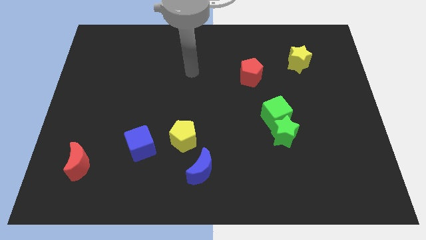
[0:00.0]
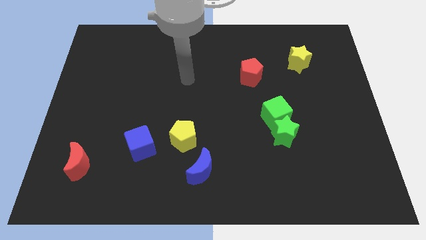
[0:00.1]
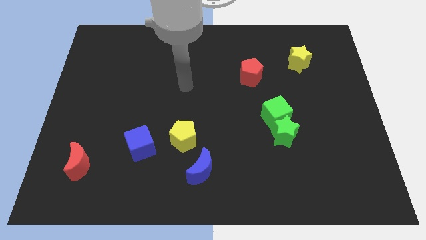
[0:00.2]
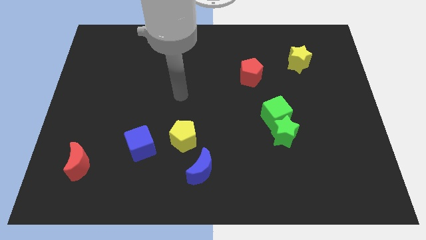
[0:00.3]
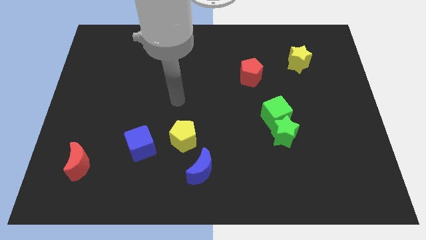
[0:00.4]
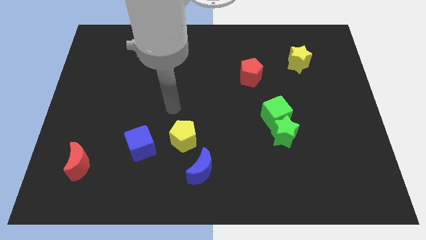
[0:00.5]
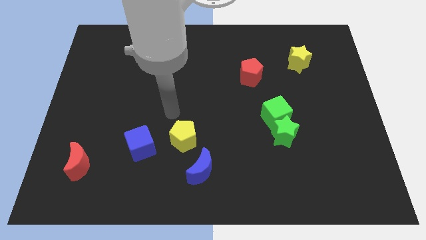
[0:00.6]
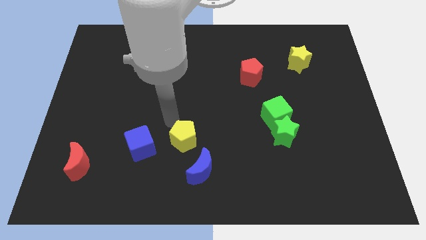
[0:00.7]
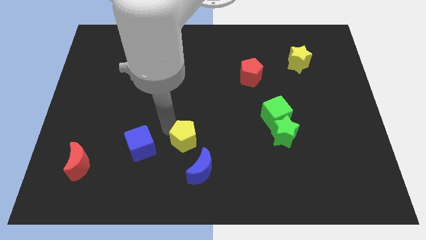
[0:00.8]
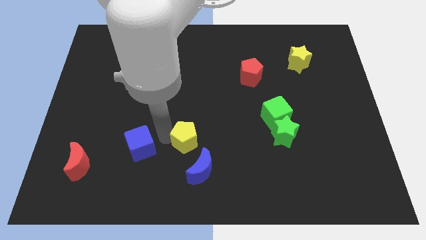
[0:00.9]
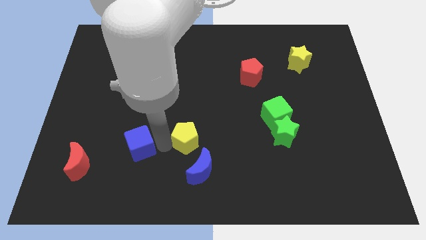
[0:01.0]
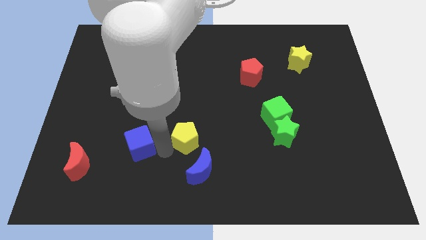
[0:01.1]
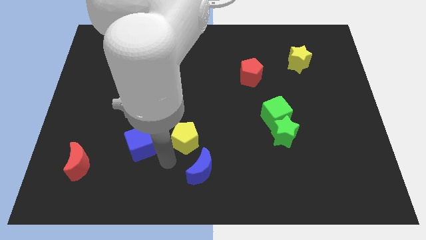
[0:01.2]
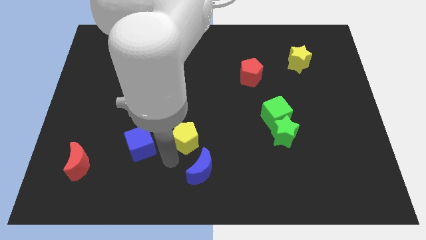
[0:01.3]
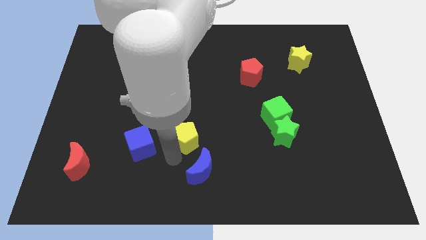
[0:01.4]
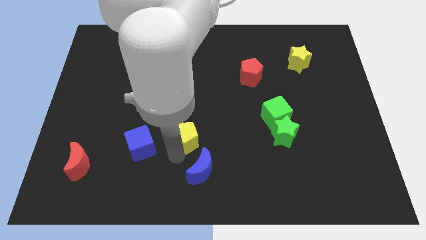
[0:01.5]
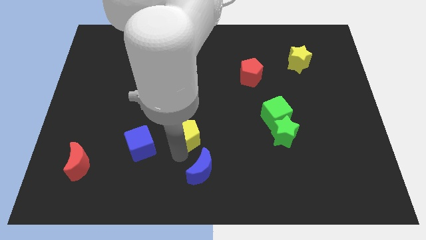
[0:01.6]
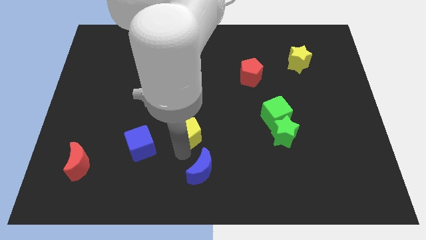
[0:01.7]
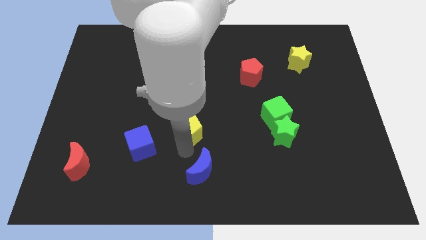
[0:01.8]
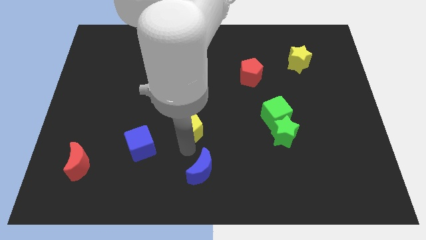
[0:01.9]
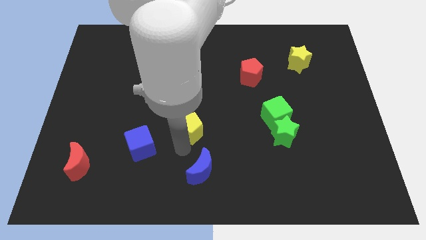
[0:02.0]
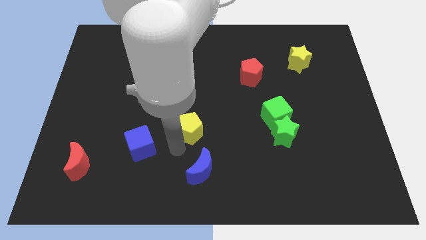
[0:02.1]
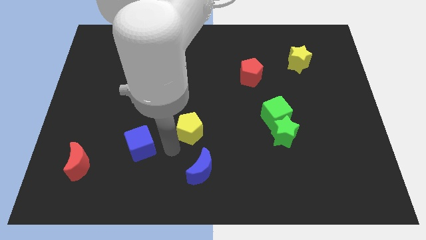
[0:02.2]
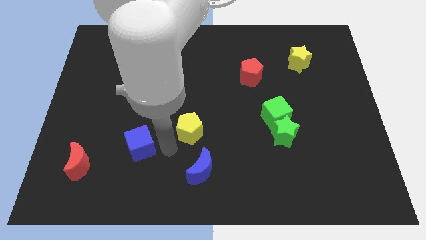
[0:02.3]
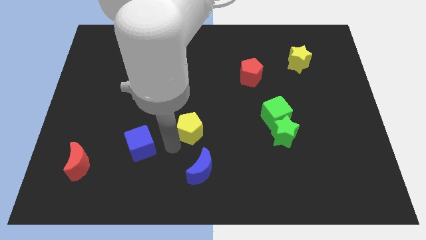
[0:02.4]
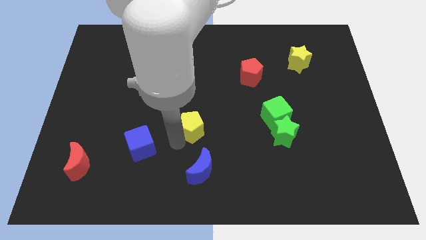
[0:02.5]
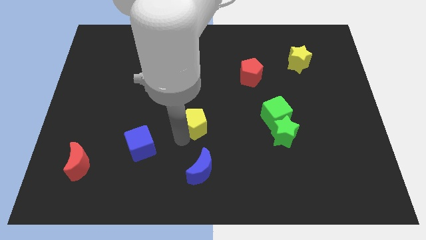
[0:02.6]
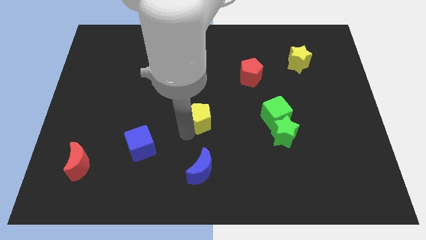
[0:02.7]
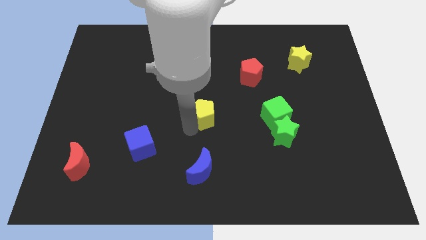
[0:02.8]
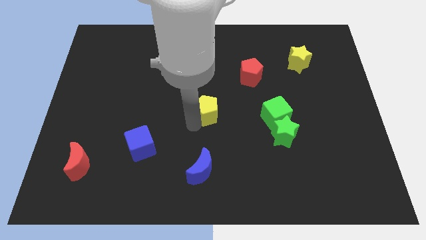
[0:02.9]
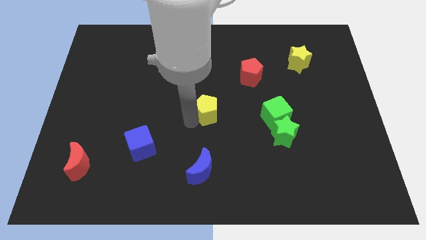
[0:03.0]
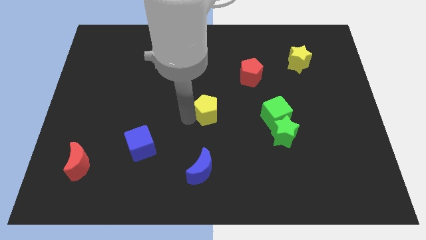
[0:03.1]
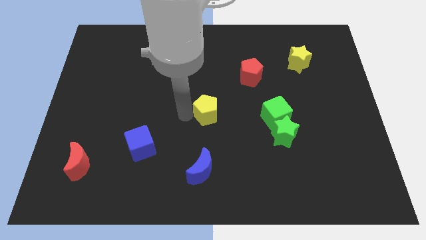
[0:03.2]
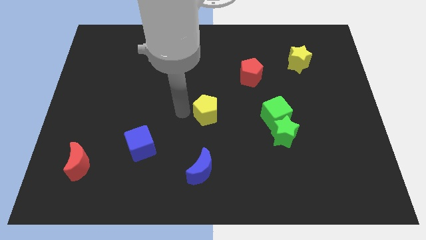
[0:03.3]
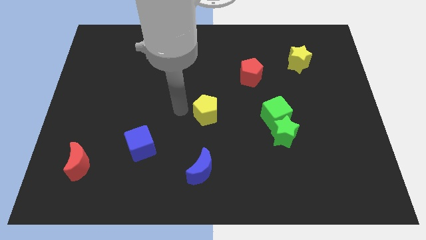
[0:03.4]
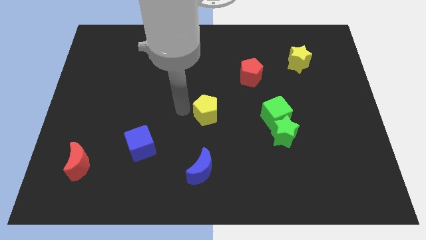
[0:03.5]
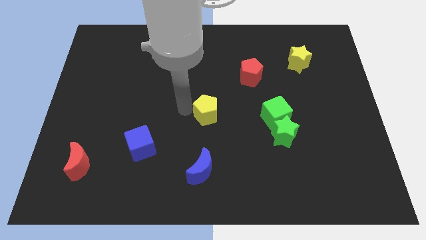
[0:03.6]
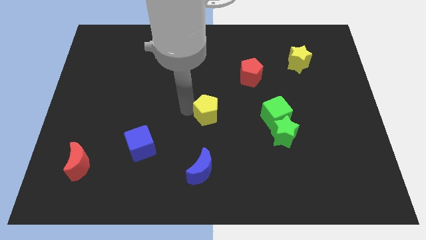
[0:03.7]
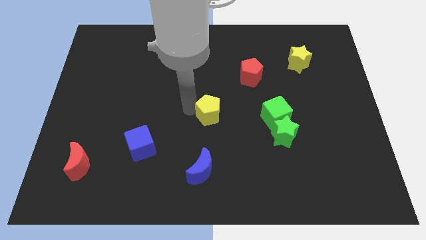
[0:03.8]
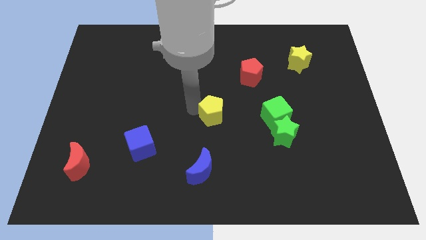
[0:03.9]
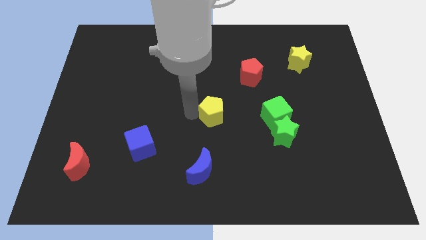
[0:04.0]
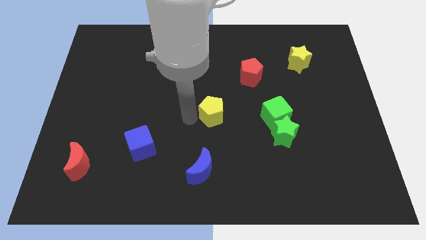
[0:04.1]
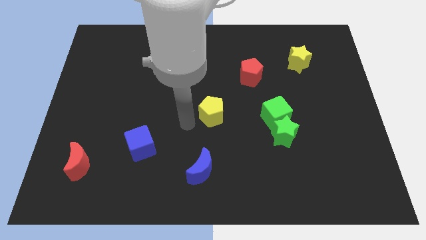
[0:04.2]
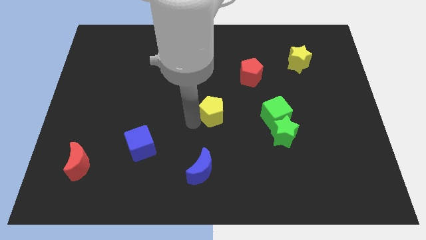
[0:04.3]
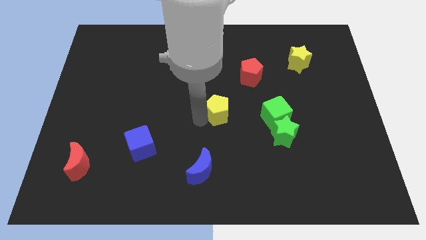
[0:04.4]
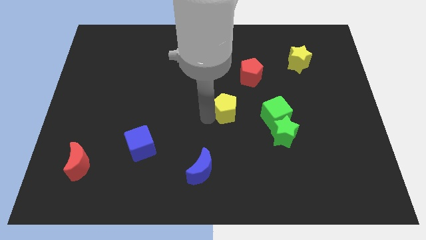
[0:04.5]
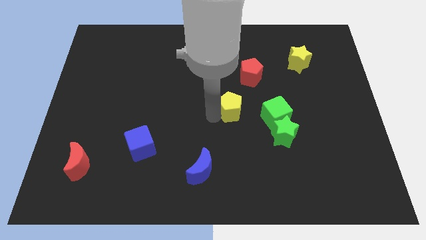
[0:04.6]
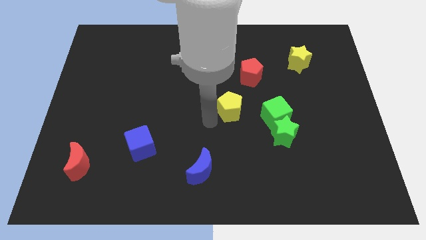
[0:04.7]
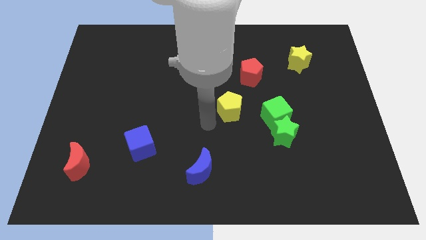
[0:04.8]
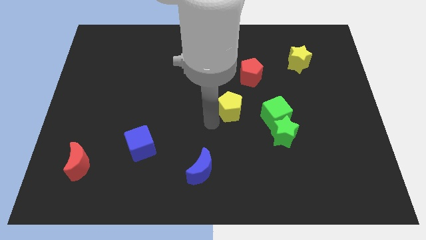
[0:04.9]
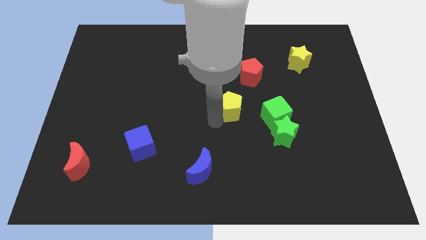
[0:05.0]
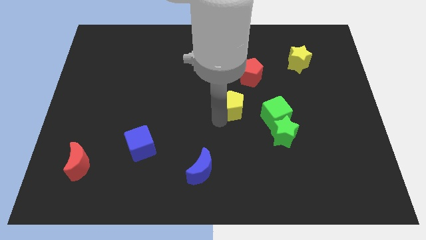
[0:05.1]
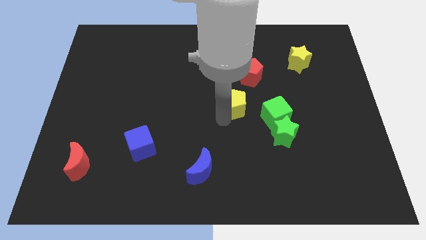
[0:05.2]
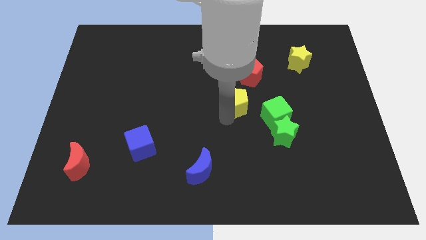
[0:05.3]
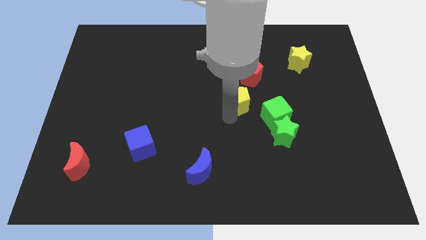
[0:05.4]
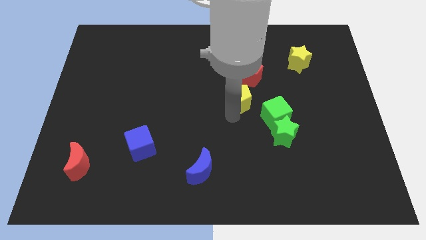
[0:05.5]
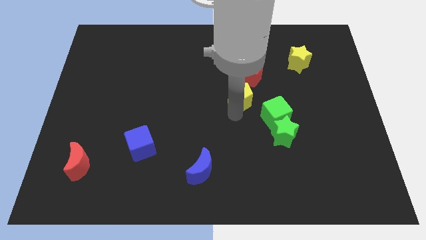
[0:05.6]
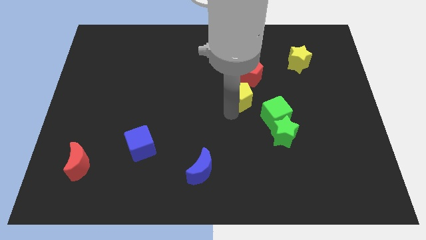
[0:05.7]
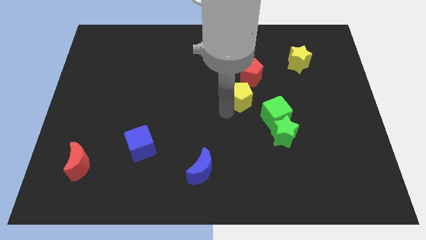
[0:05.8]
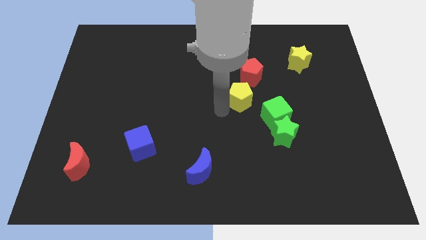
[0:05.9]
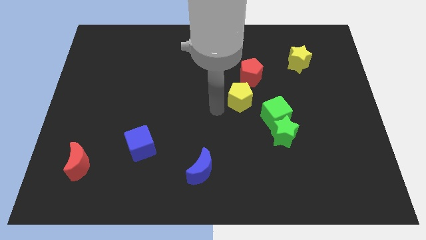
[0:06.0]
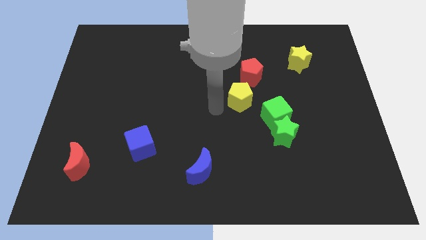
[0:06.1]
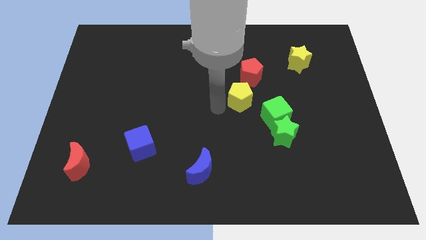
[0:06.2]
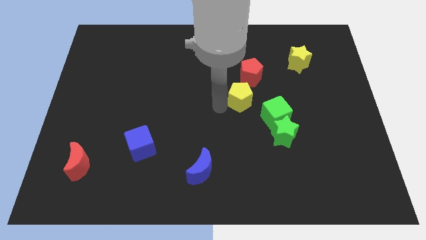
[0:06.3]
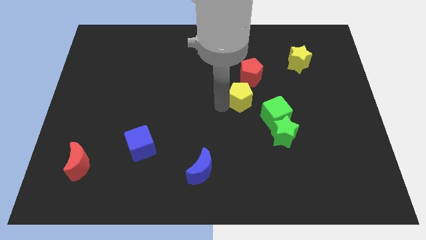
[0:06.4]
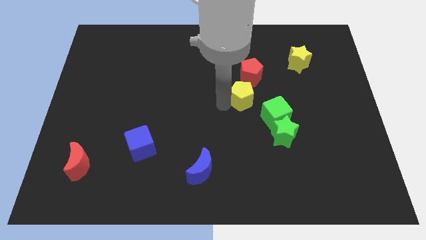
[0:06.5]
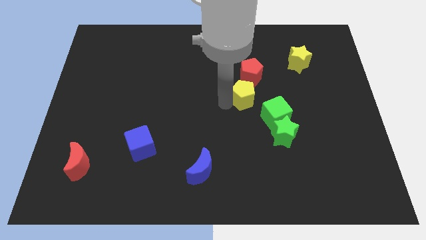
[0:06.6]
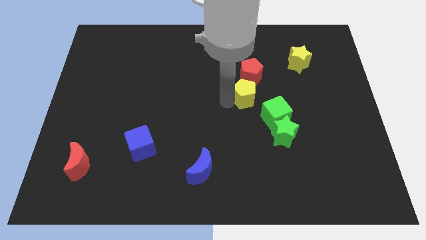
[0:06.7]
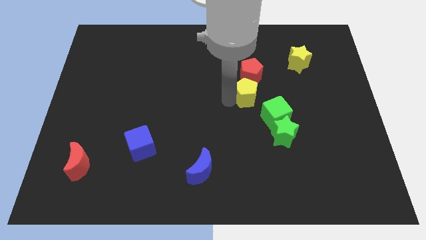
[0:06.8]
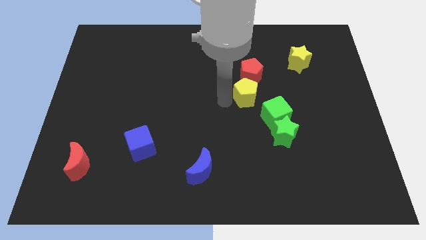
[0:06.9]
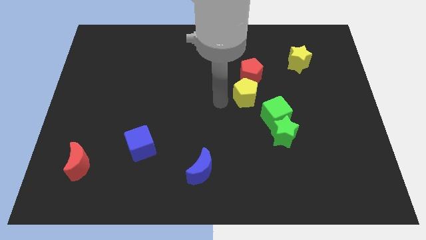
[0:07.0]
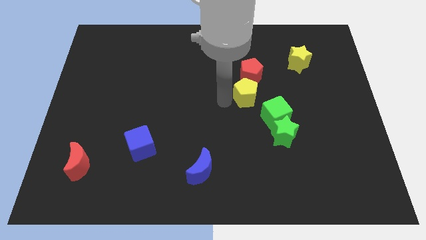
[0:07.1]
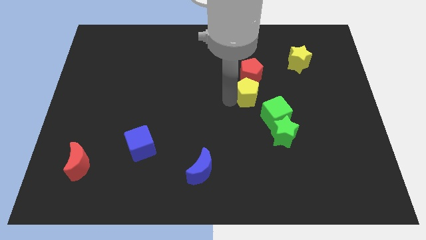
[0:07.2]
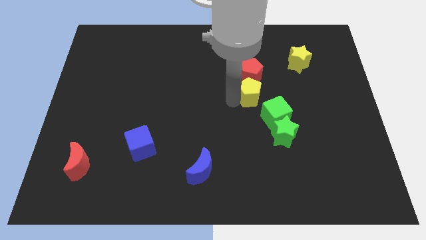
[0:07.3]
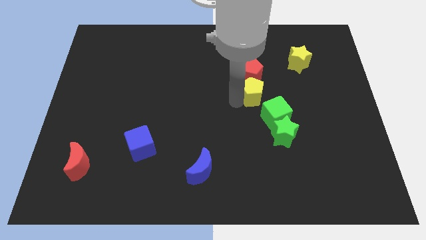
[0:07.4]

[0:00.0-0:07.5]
put the yellow pentagon to the top side of the green cube
